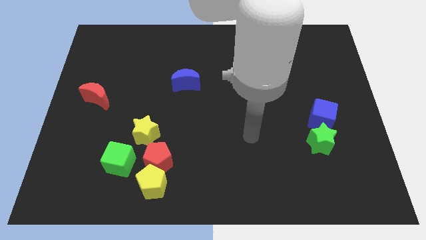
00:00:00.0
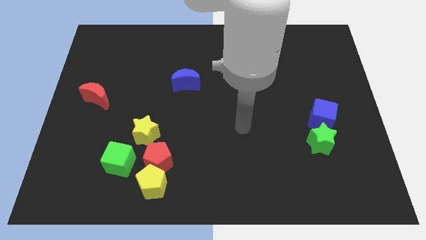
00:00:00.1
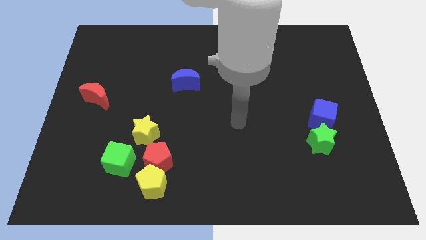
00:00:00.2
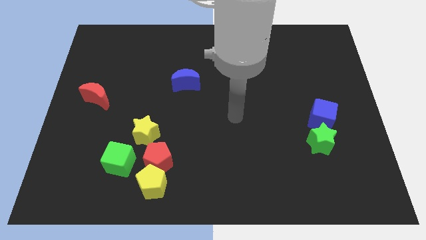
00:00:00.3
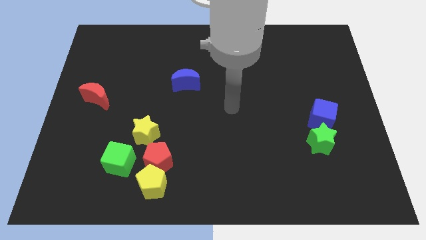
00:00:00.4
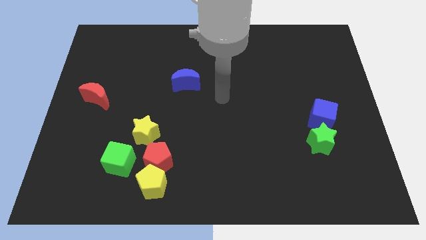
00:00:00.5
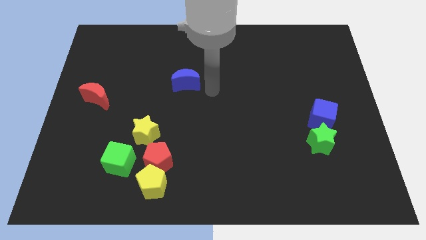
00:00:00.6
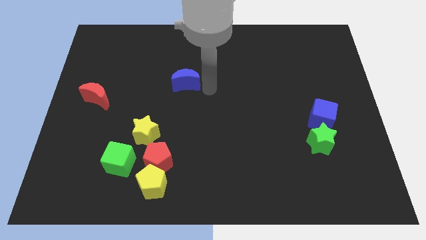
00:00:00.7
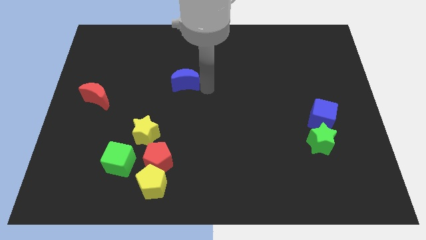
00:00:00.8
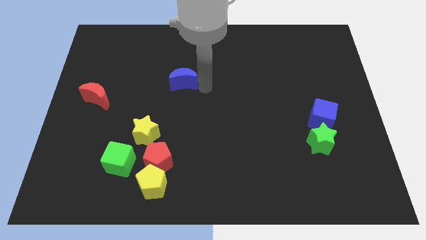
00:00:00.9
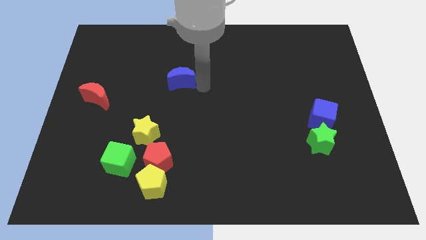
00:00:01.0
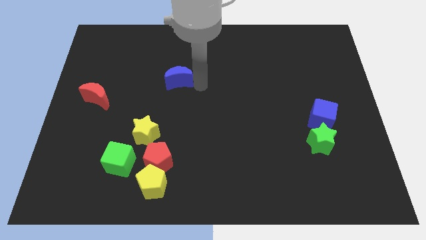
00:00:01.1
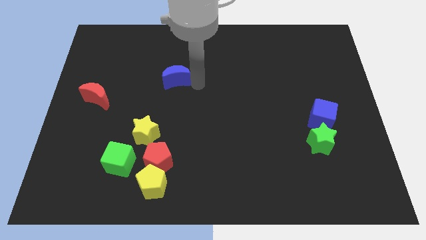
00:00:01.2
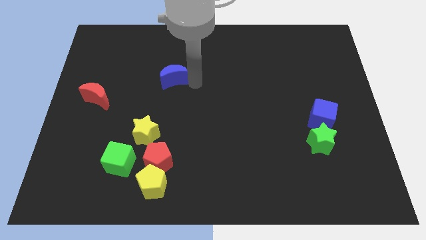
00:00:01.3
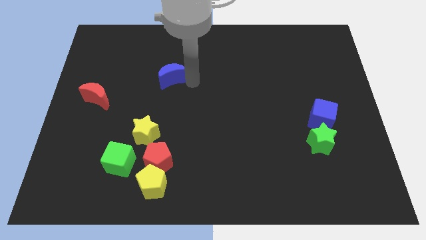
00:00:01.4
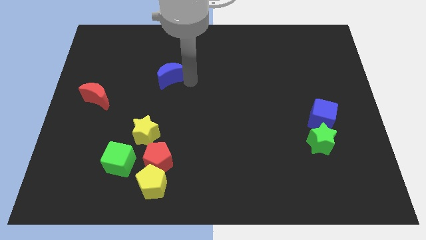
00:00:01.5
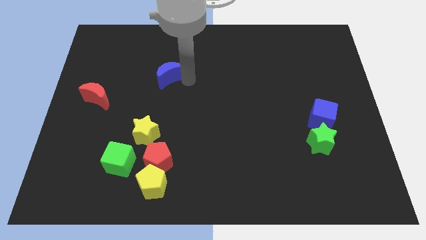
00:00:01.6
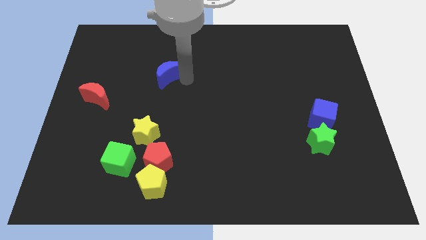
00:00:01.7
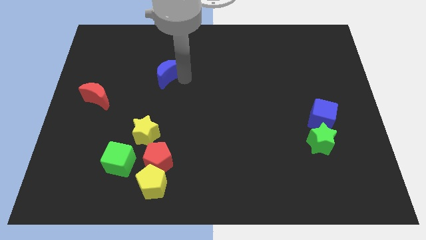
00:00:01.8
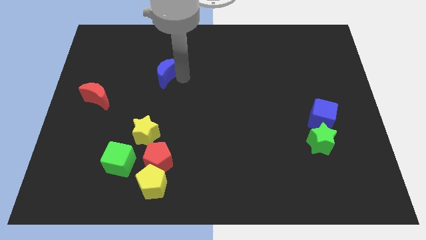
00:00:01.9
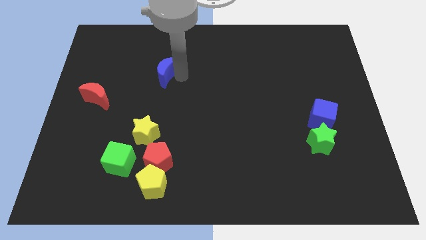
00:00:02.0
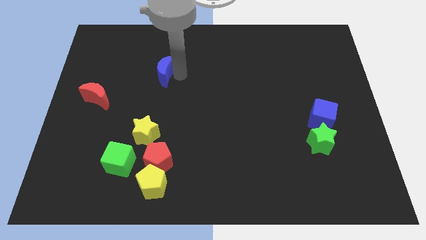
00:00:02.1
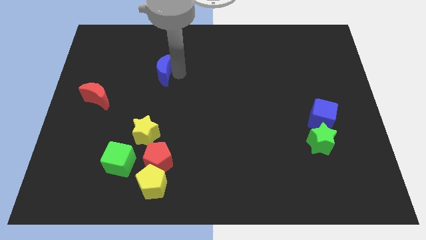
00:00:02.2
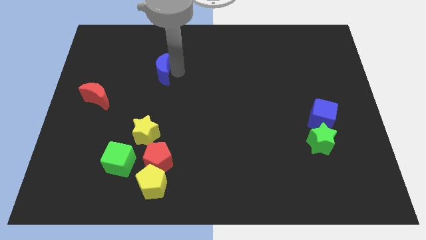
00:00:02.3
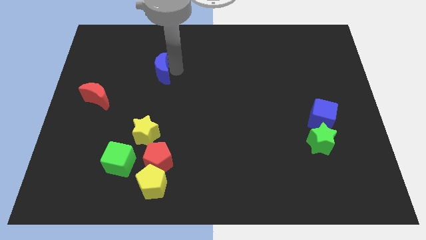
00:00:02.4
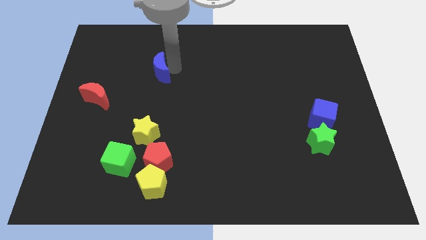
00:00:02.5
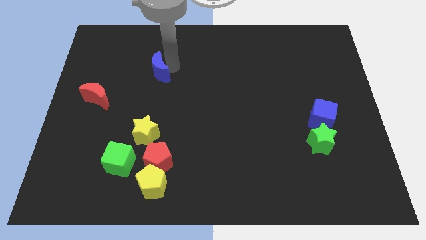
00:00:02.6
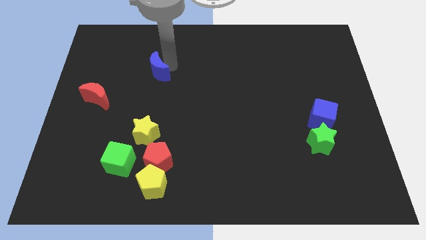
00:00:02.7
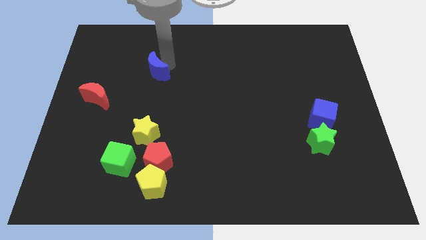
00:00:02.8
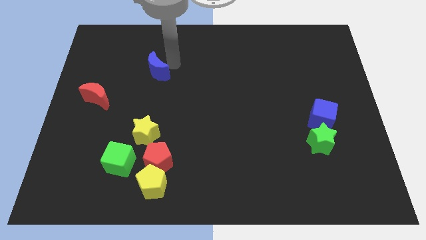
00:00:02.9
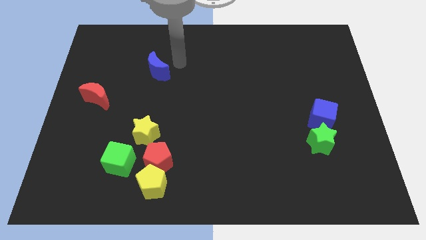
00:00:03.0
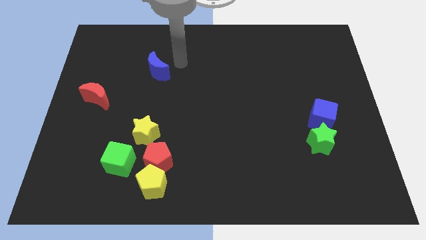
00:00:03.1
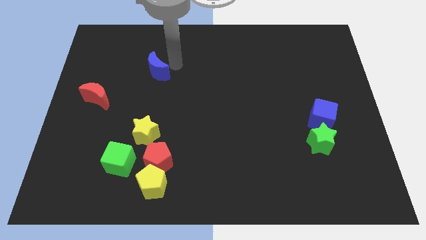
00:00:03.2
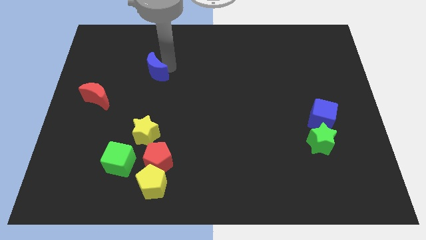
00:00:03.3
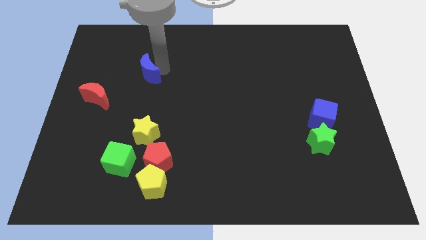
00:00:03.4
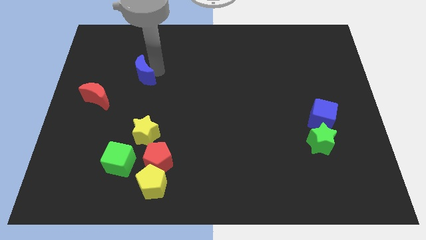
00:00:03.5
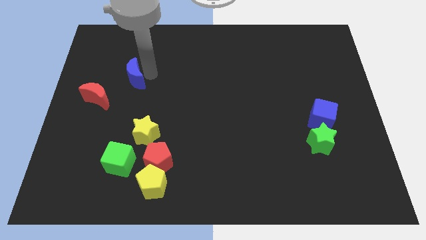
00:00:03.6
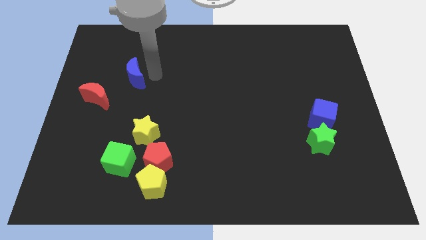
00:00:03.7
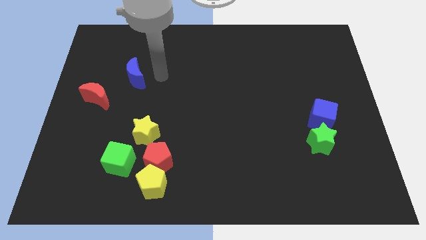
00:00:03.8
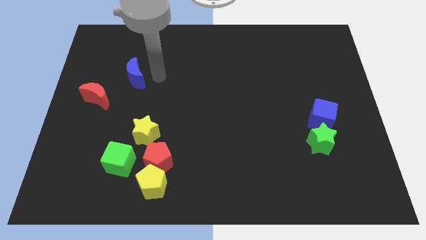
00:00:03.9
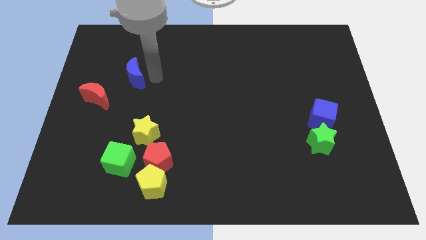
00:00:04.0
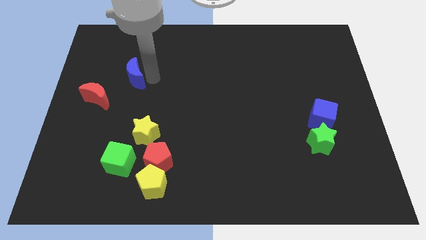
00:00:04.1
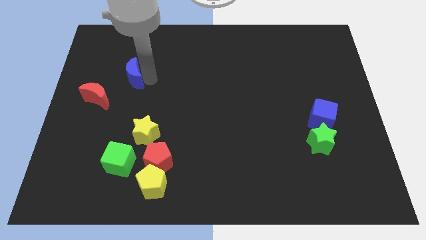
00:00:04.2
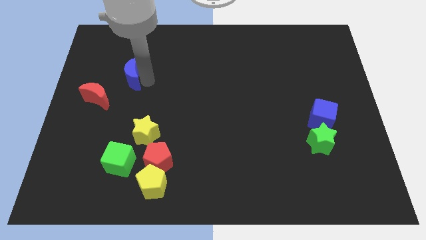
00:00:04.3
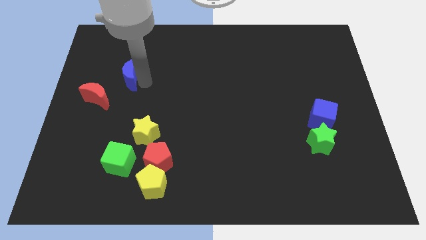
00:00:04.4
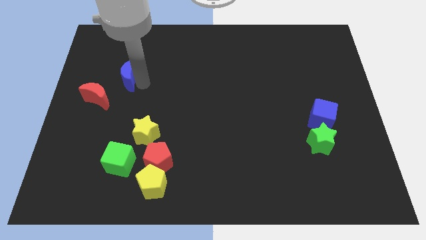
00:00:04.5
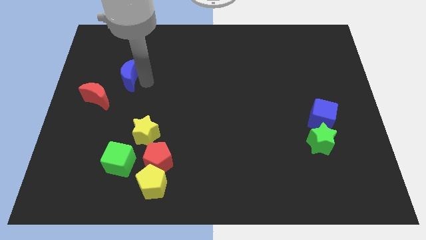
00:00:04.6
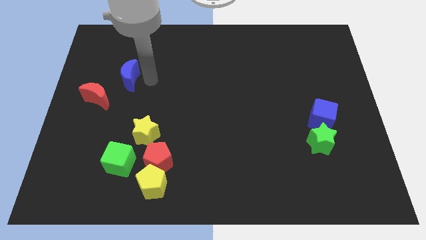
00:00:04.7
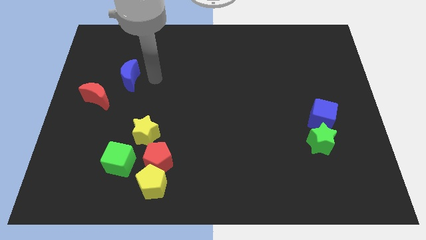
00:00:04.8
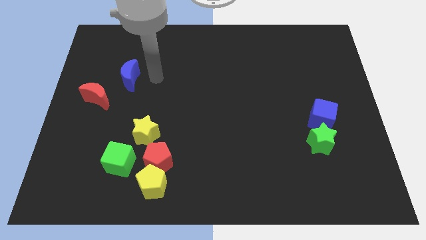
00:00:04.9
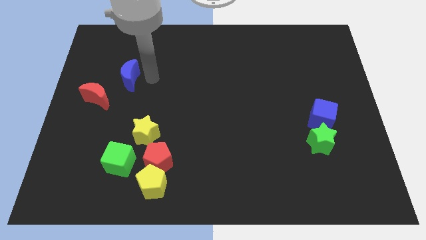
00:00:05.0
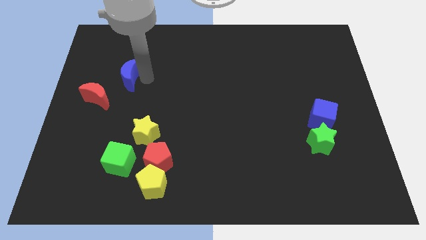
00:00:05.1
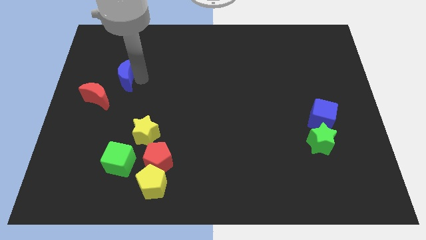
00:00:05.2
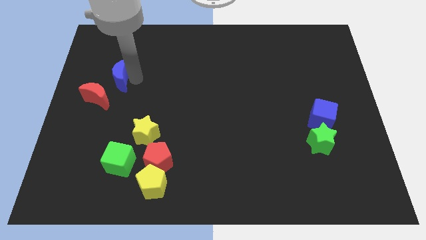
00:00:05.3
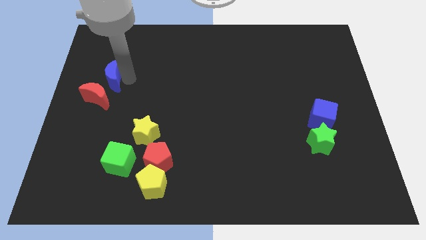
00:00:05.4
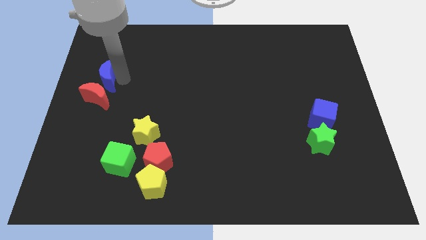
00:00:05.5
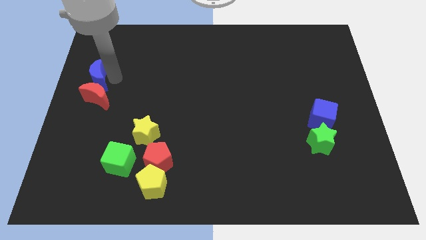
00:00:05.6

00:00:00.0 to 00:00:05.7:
put the blue moon to the left side of the board

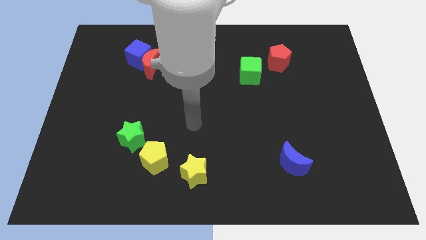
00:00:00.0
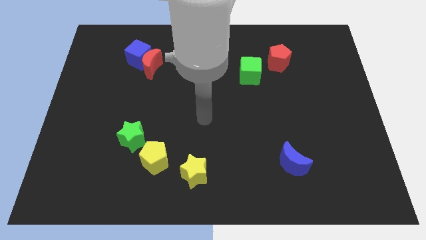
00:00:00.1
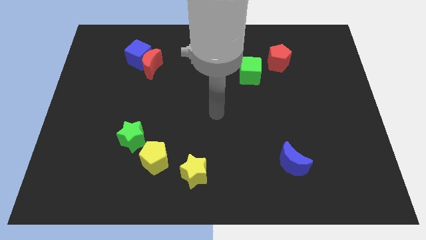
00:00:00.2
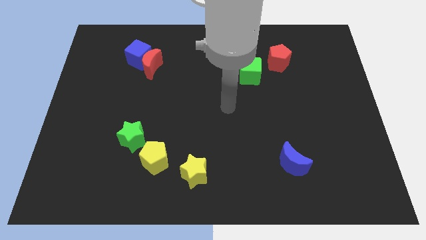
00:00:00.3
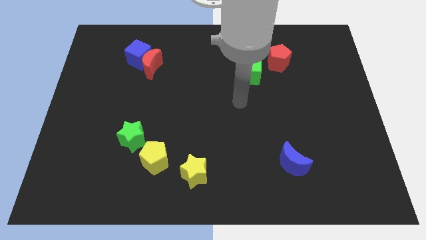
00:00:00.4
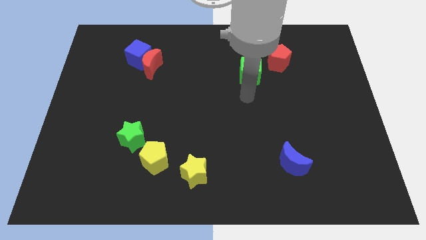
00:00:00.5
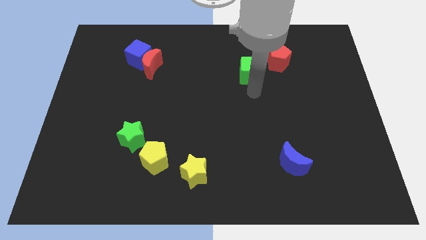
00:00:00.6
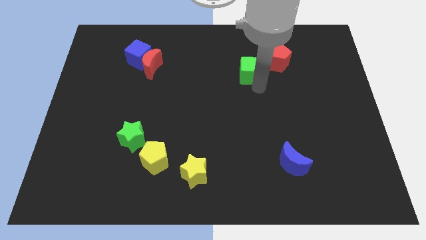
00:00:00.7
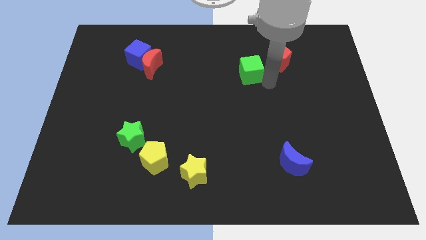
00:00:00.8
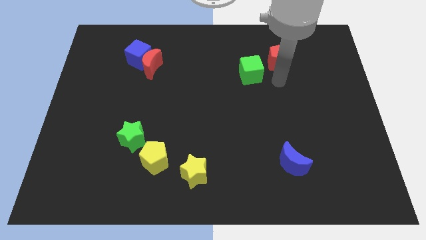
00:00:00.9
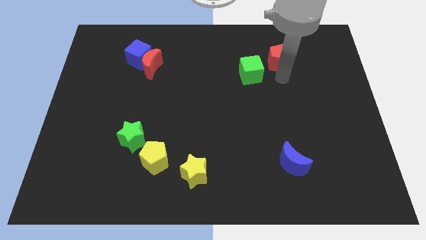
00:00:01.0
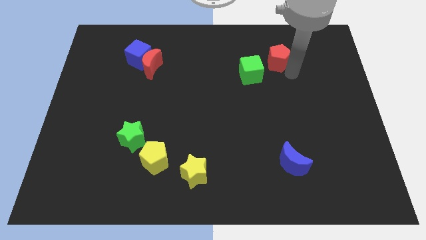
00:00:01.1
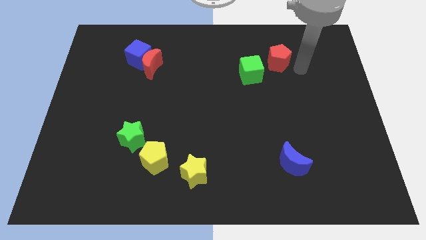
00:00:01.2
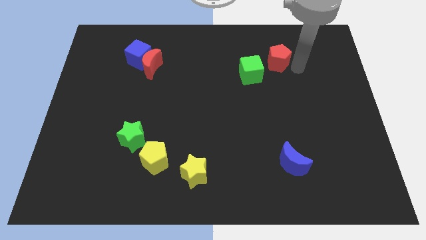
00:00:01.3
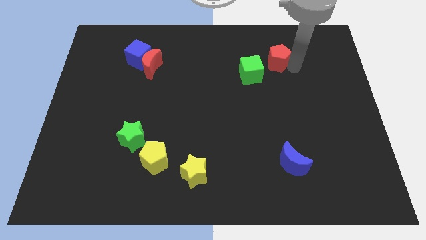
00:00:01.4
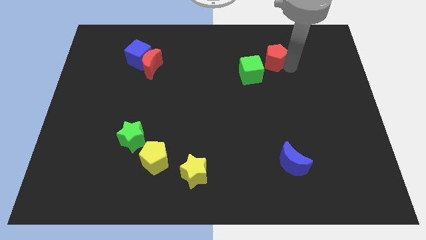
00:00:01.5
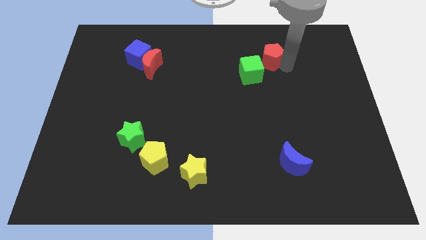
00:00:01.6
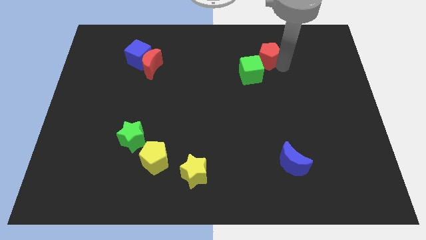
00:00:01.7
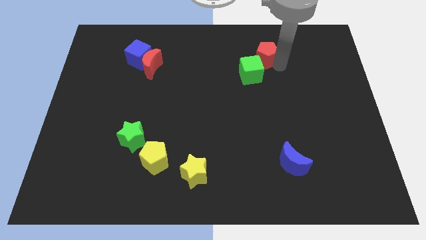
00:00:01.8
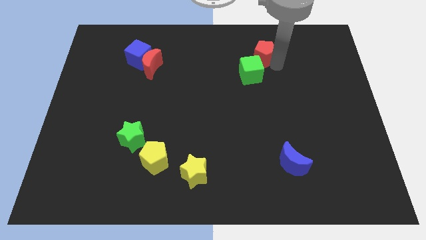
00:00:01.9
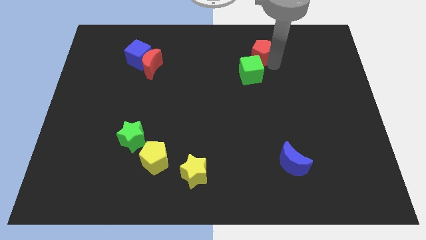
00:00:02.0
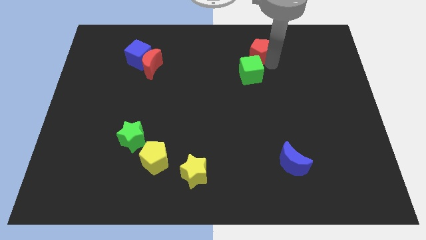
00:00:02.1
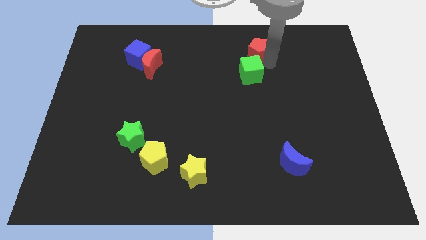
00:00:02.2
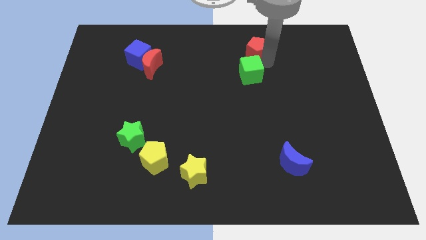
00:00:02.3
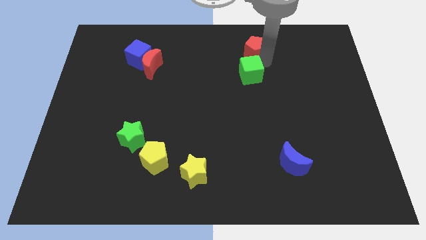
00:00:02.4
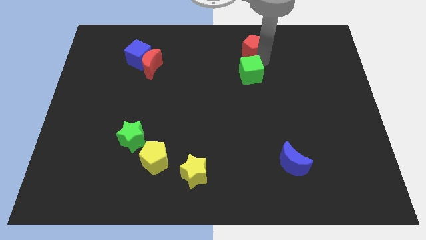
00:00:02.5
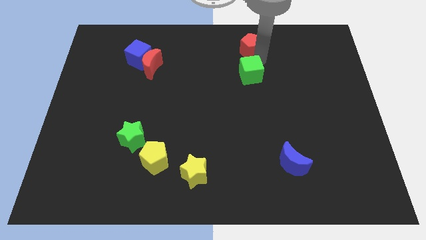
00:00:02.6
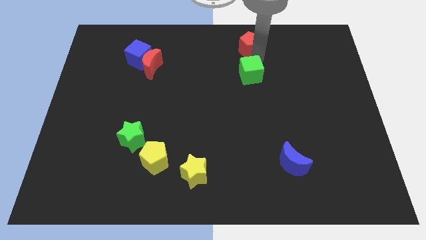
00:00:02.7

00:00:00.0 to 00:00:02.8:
slide the red pentagon to the top
